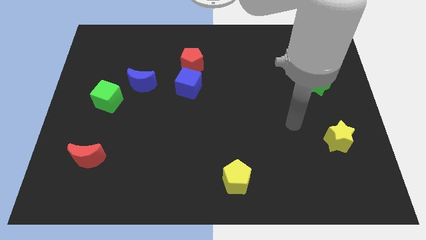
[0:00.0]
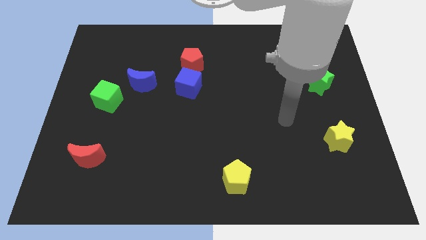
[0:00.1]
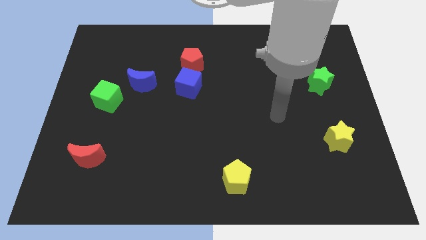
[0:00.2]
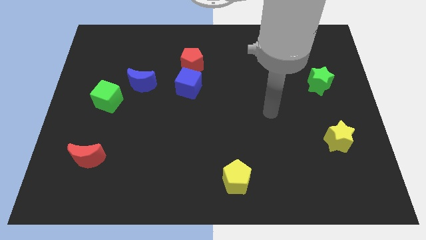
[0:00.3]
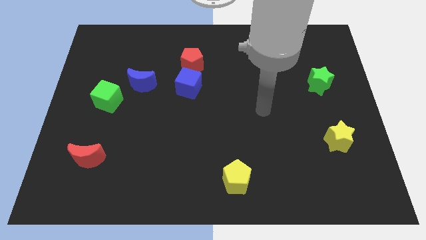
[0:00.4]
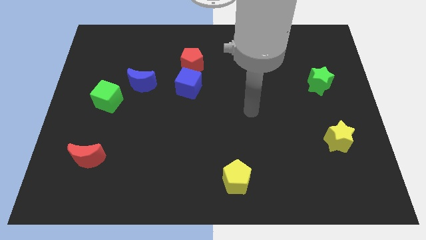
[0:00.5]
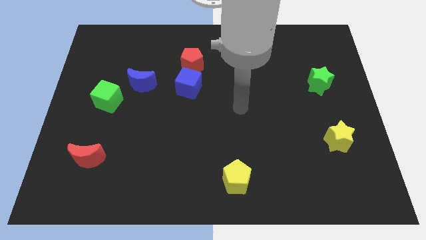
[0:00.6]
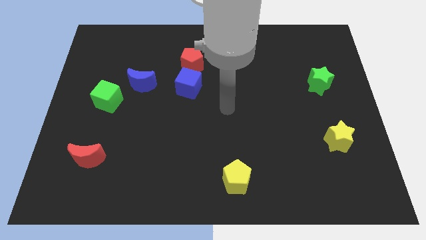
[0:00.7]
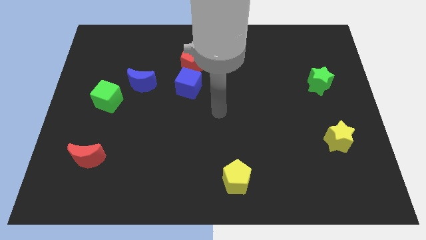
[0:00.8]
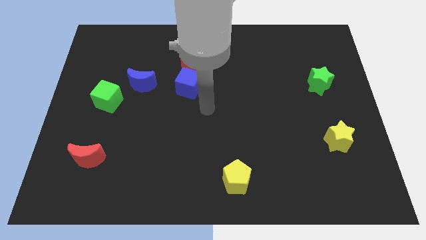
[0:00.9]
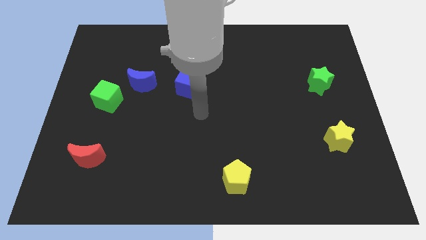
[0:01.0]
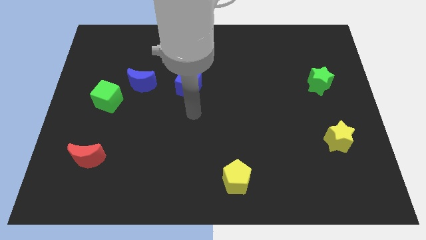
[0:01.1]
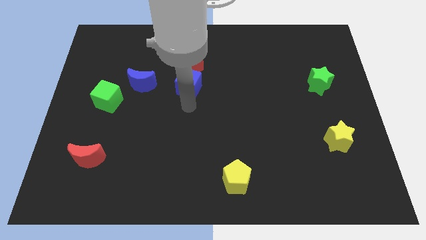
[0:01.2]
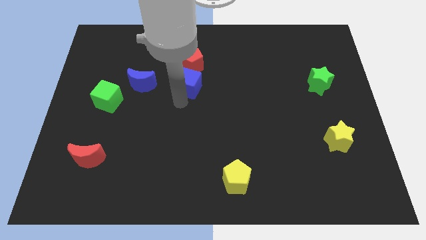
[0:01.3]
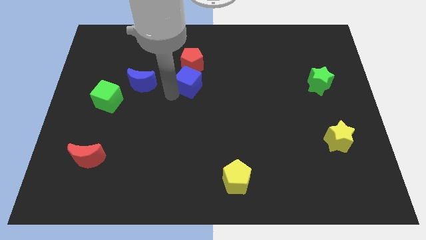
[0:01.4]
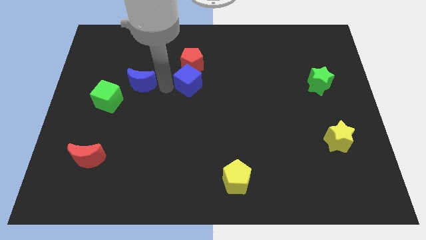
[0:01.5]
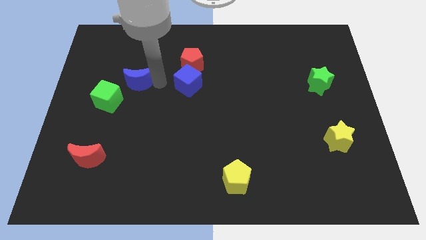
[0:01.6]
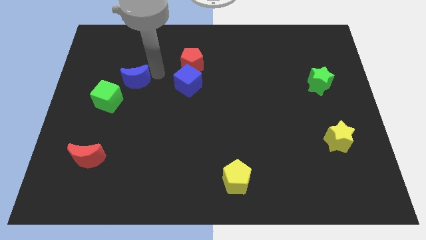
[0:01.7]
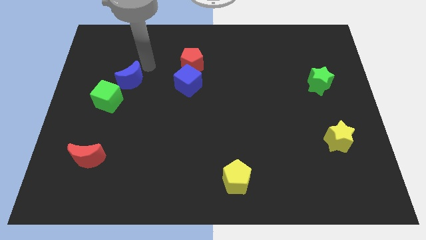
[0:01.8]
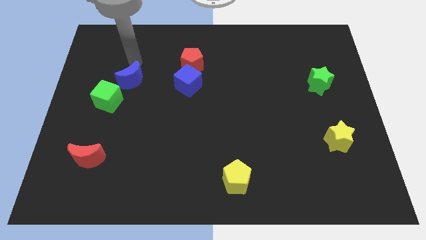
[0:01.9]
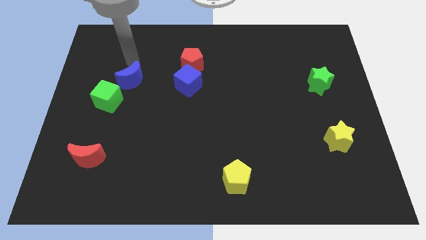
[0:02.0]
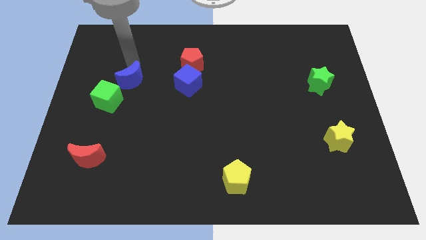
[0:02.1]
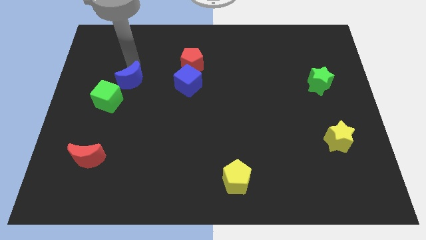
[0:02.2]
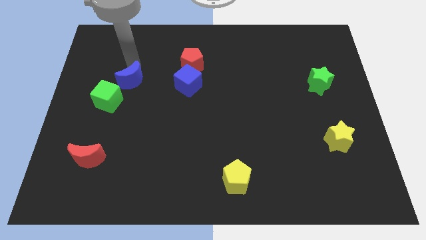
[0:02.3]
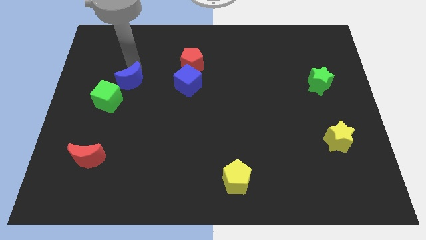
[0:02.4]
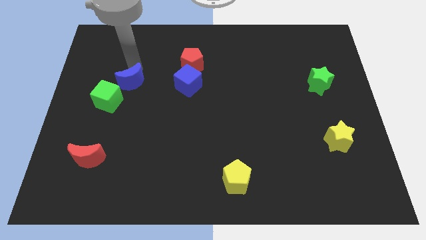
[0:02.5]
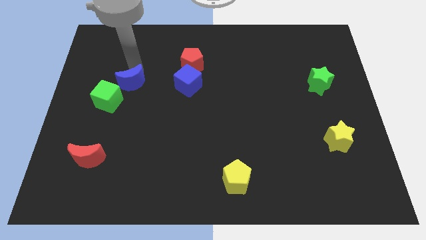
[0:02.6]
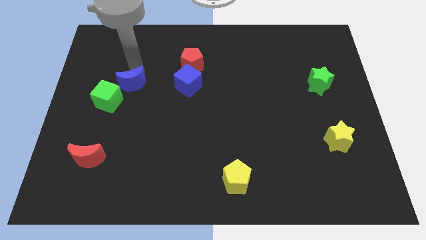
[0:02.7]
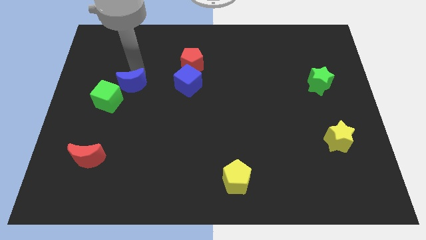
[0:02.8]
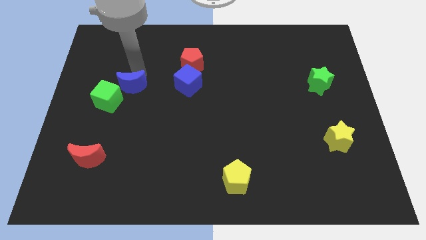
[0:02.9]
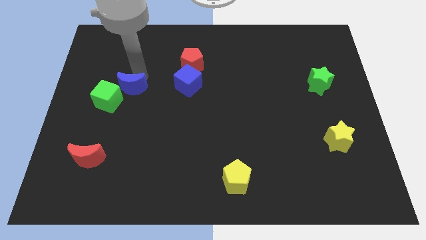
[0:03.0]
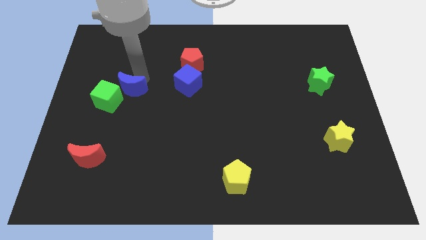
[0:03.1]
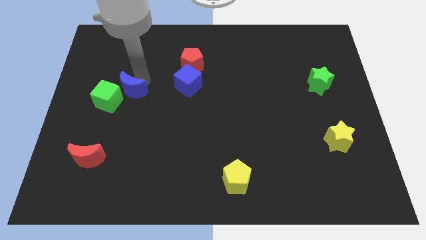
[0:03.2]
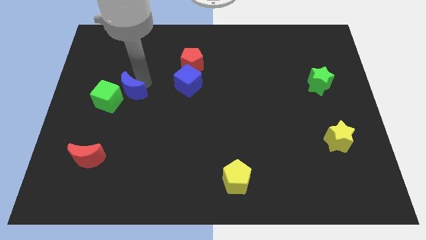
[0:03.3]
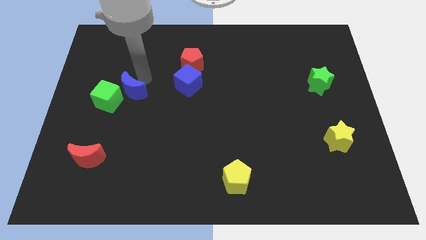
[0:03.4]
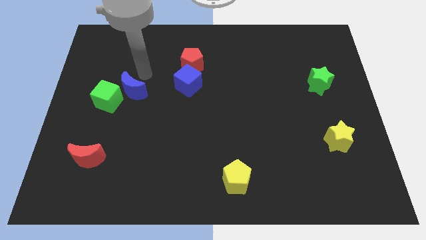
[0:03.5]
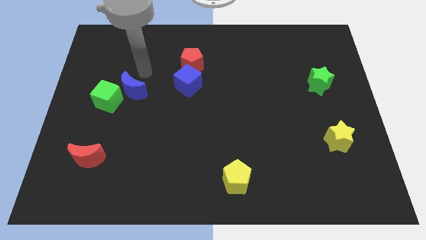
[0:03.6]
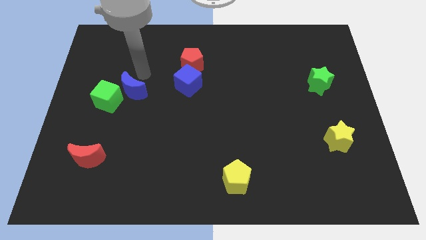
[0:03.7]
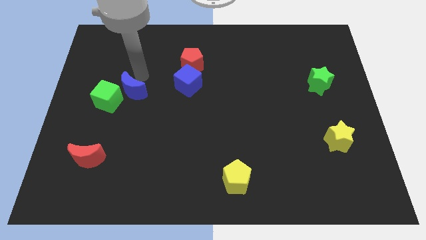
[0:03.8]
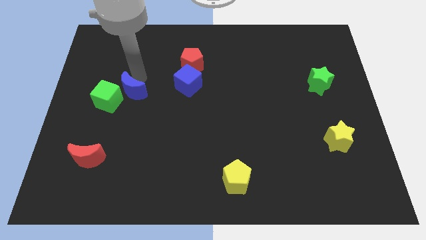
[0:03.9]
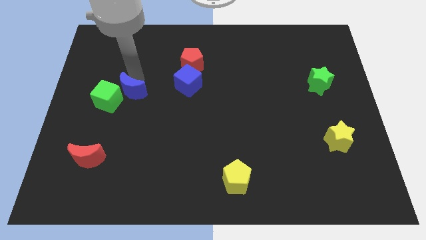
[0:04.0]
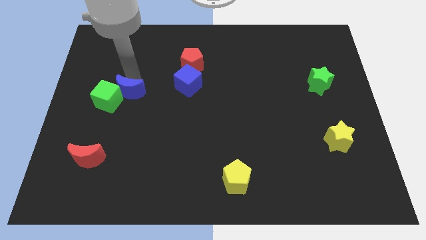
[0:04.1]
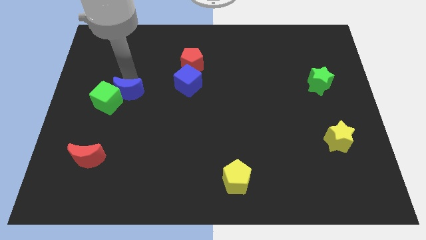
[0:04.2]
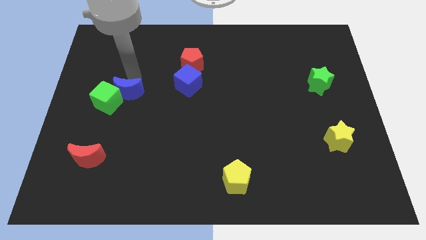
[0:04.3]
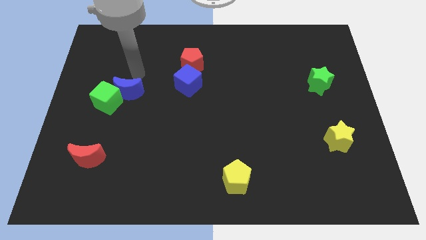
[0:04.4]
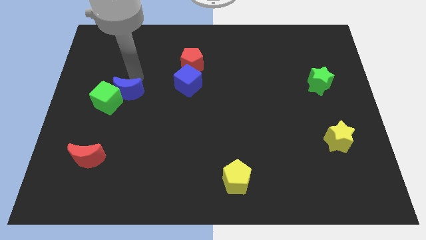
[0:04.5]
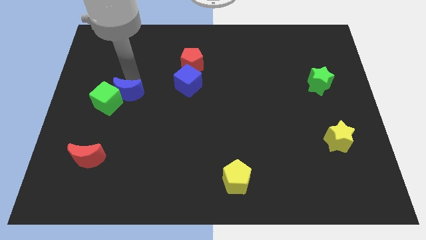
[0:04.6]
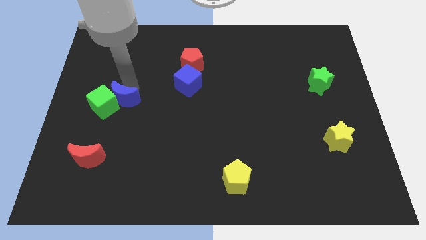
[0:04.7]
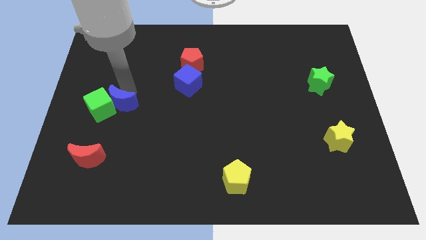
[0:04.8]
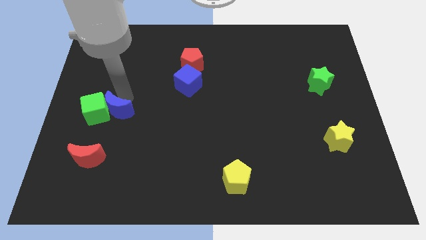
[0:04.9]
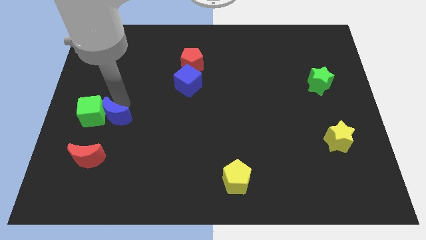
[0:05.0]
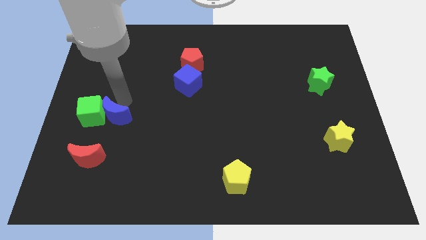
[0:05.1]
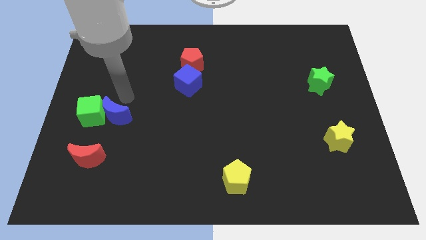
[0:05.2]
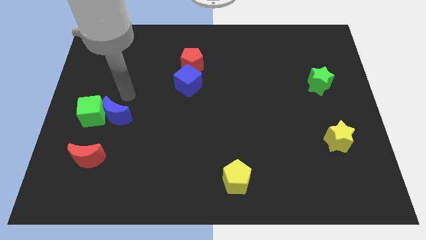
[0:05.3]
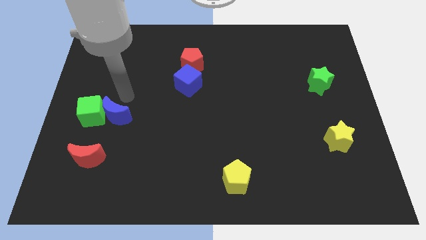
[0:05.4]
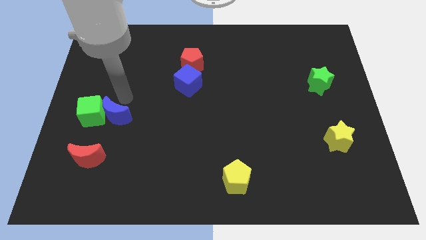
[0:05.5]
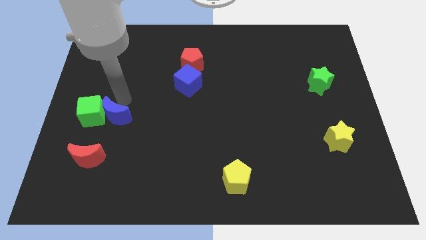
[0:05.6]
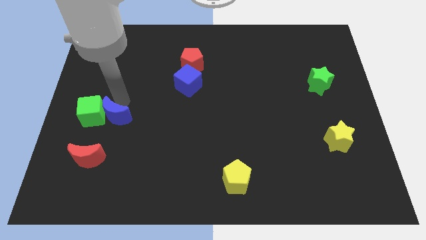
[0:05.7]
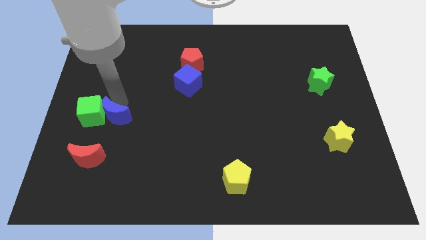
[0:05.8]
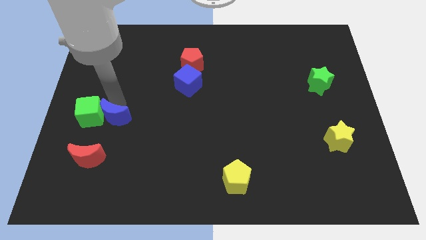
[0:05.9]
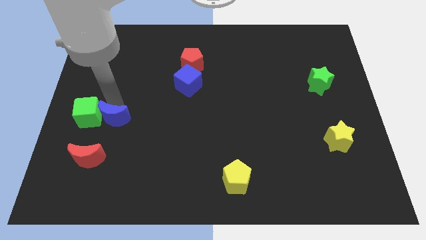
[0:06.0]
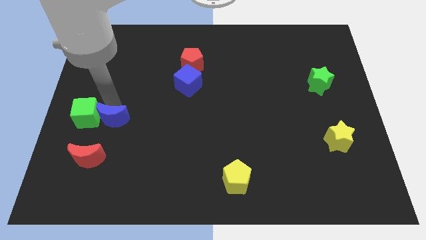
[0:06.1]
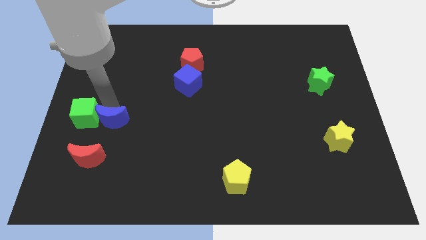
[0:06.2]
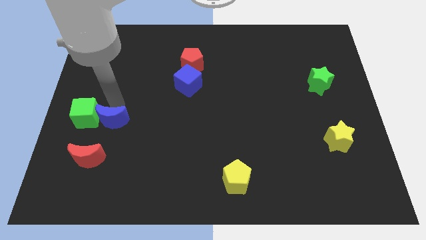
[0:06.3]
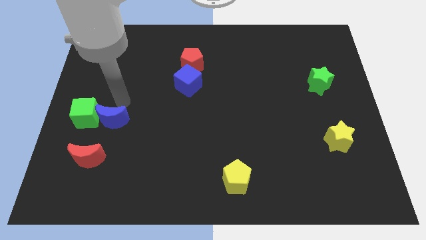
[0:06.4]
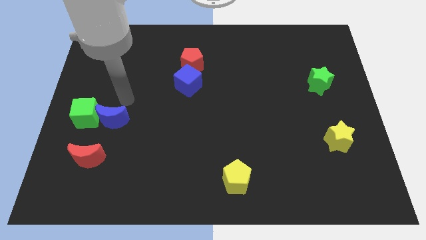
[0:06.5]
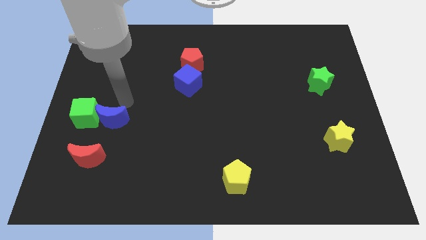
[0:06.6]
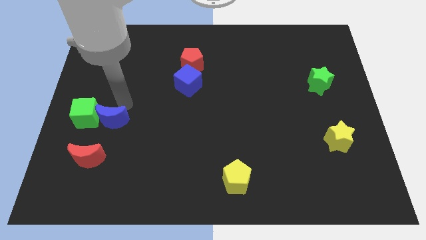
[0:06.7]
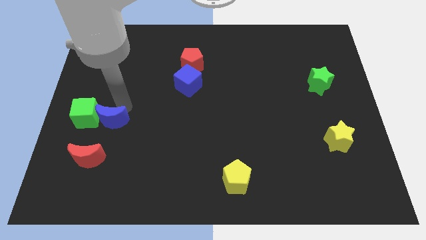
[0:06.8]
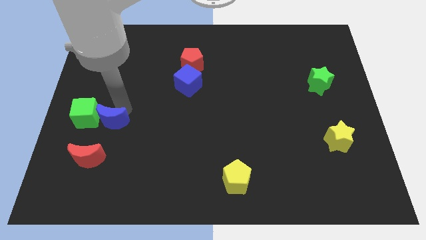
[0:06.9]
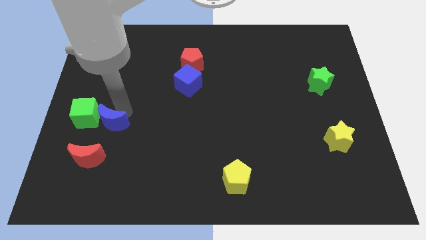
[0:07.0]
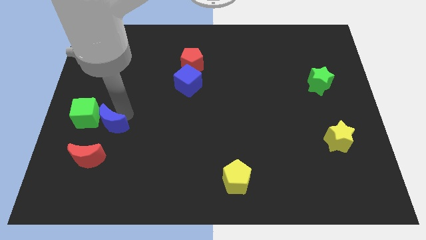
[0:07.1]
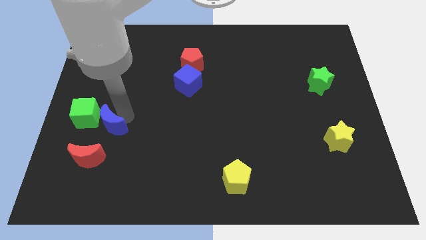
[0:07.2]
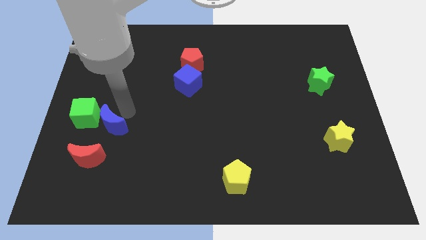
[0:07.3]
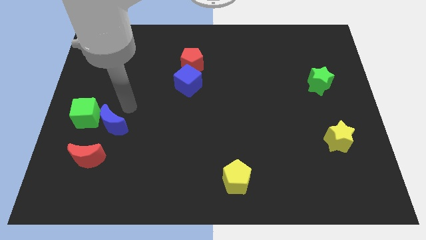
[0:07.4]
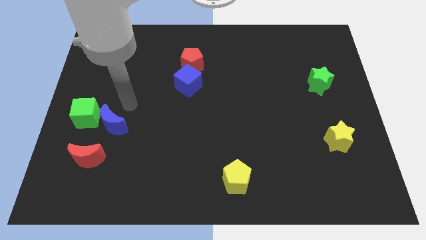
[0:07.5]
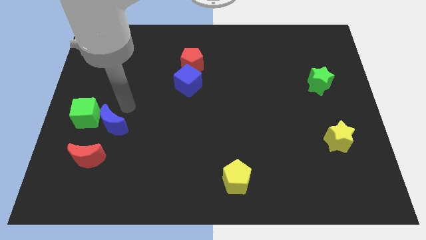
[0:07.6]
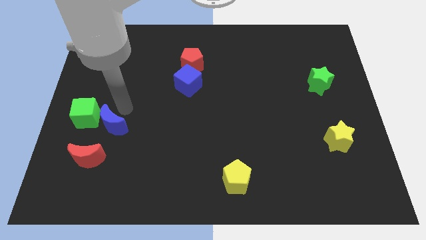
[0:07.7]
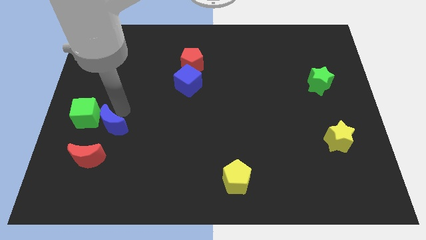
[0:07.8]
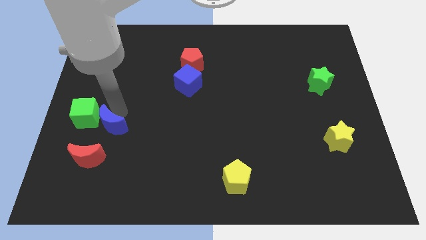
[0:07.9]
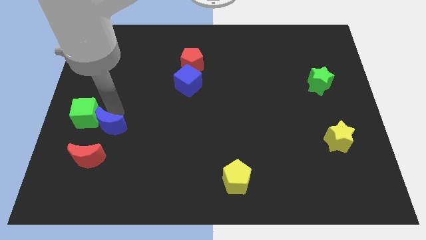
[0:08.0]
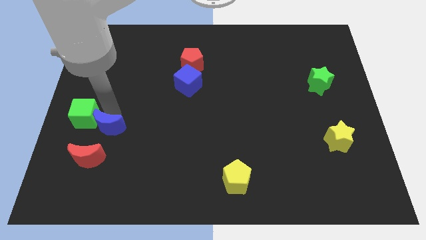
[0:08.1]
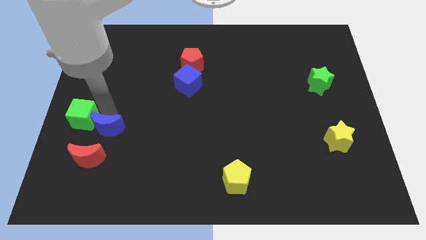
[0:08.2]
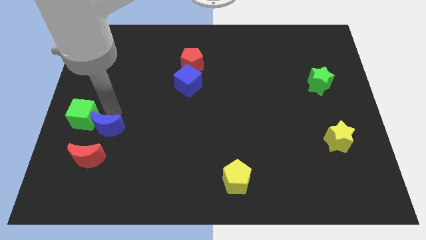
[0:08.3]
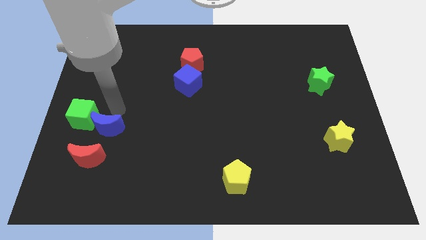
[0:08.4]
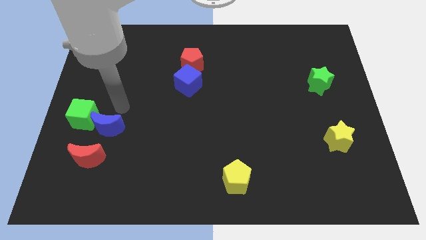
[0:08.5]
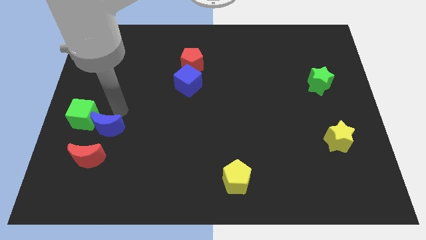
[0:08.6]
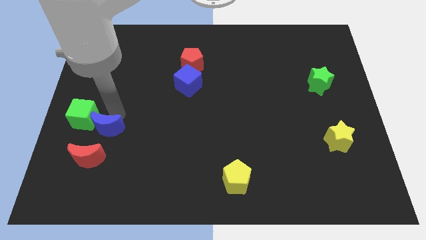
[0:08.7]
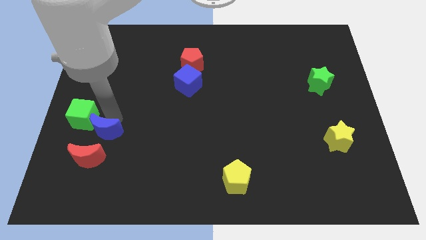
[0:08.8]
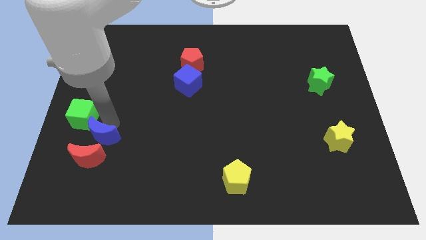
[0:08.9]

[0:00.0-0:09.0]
slide the blue moon to the red moon
